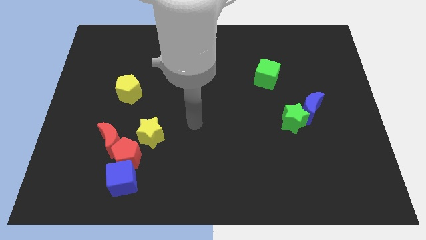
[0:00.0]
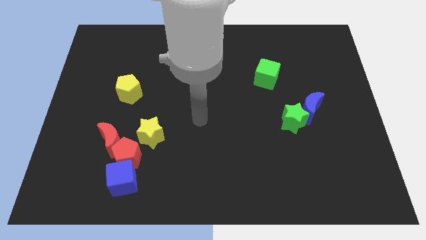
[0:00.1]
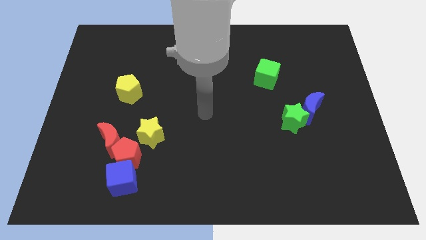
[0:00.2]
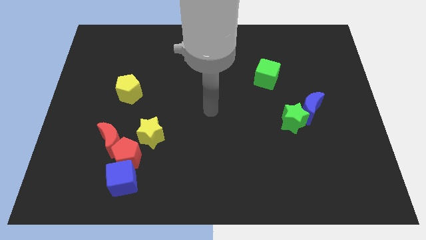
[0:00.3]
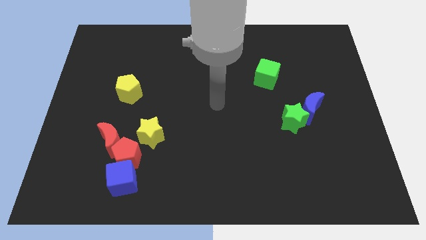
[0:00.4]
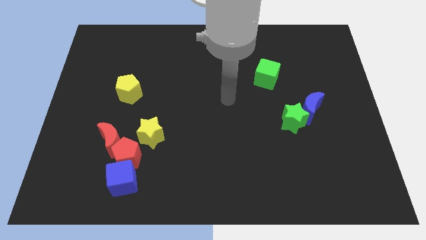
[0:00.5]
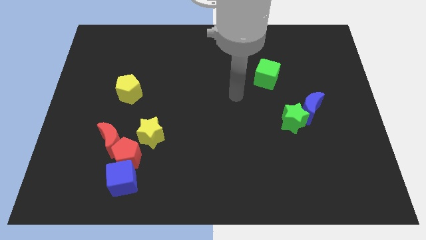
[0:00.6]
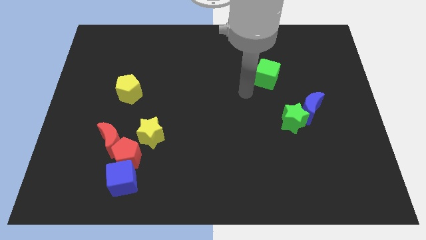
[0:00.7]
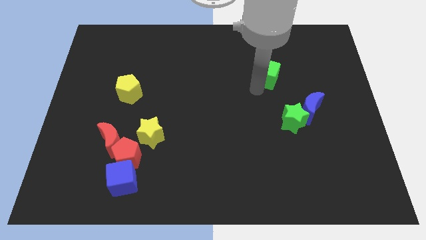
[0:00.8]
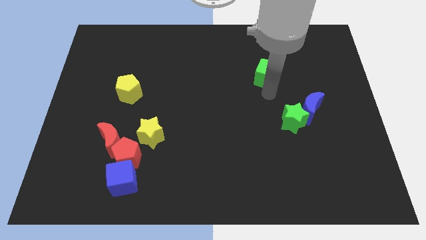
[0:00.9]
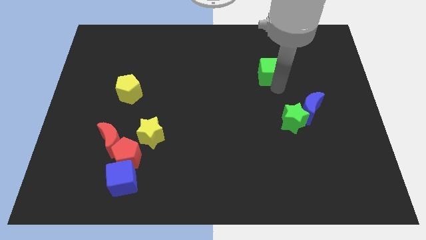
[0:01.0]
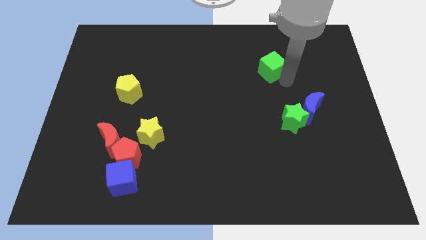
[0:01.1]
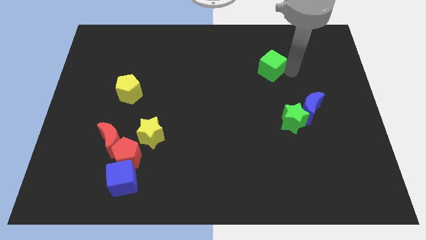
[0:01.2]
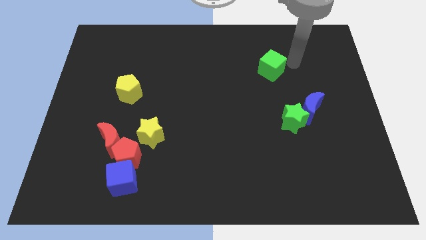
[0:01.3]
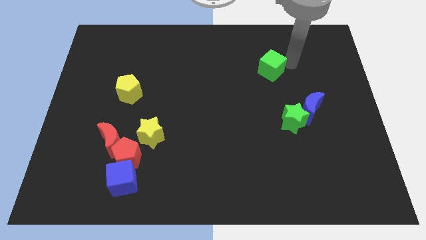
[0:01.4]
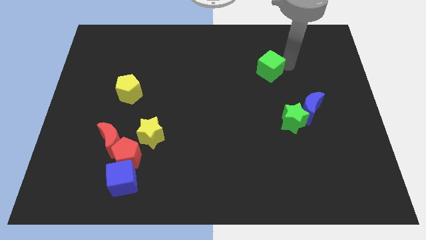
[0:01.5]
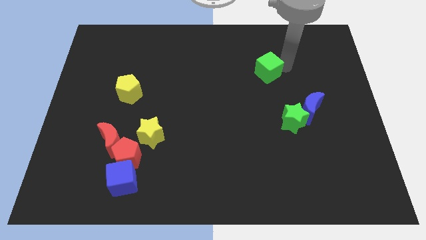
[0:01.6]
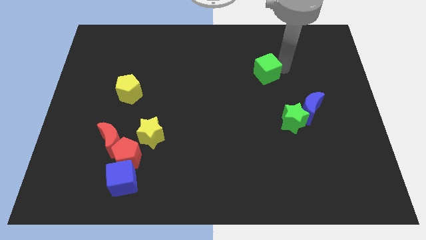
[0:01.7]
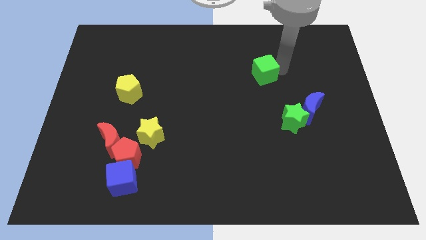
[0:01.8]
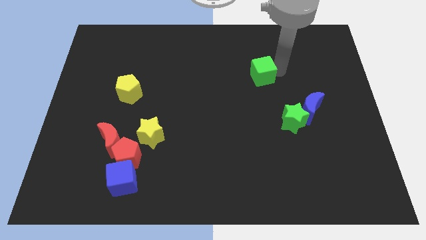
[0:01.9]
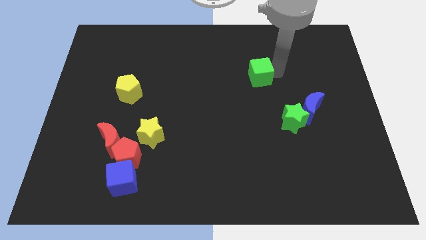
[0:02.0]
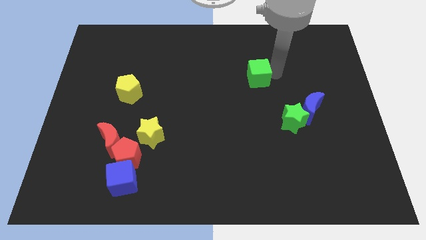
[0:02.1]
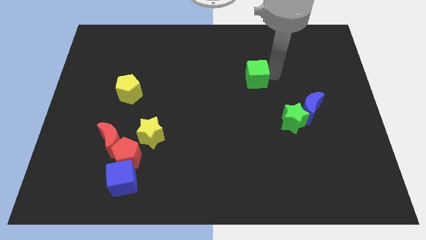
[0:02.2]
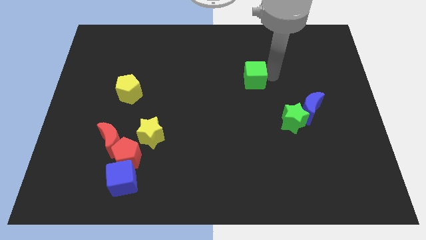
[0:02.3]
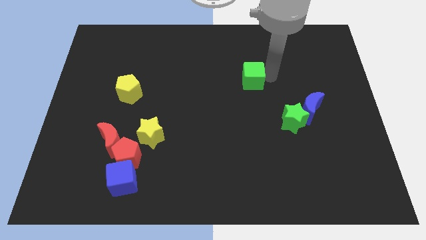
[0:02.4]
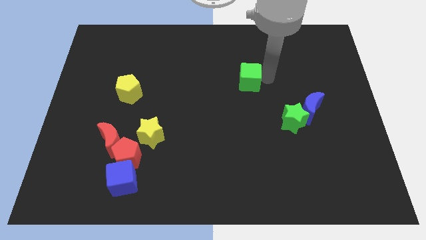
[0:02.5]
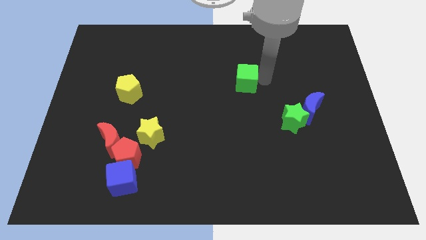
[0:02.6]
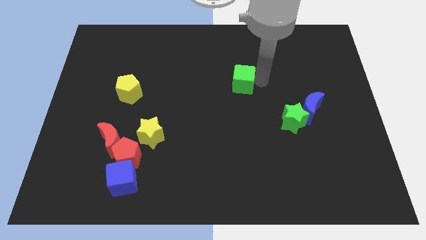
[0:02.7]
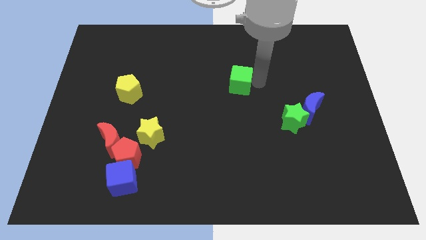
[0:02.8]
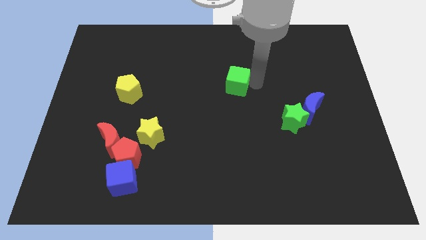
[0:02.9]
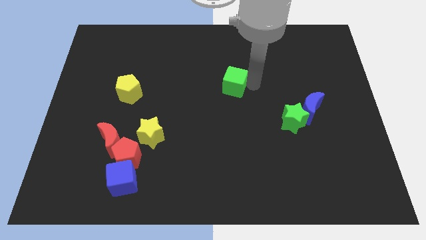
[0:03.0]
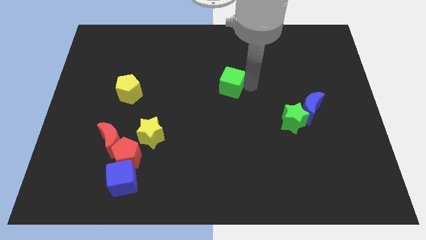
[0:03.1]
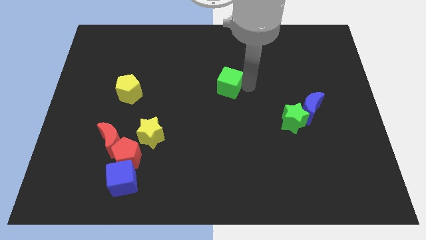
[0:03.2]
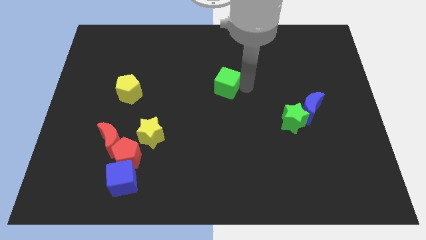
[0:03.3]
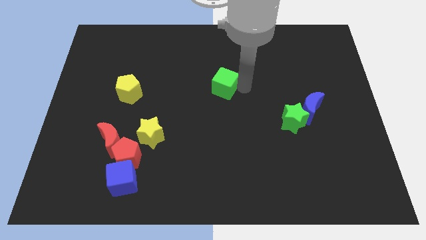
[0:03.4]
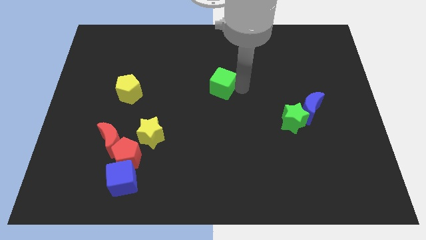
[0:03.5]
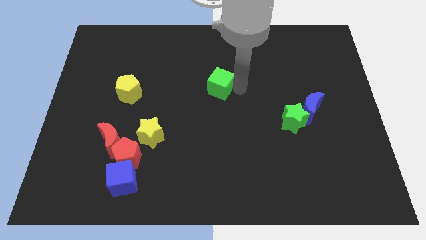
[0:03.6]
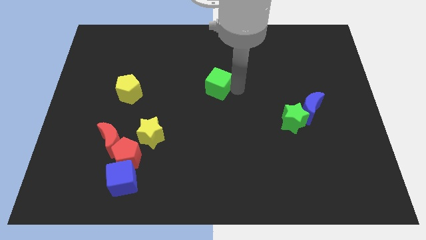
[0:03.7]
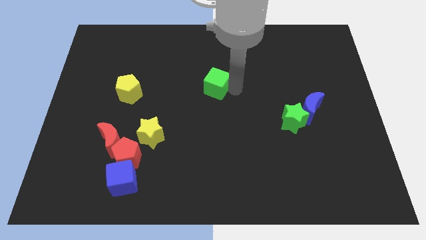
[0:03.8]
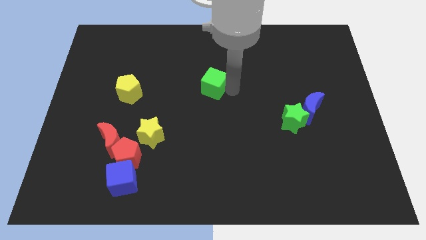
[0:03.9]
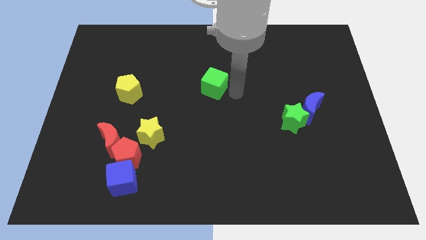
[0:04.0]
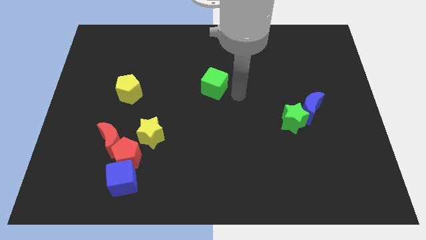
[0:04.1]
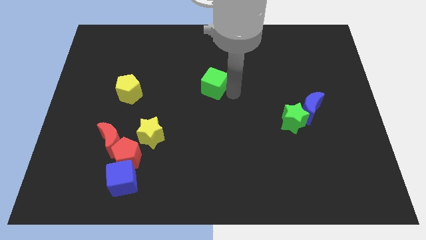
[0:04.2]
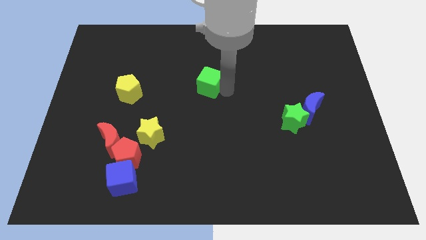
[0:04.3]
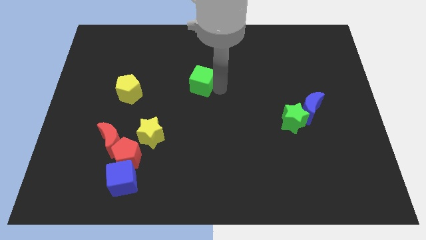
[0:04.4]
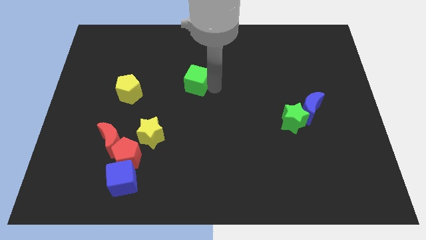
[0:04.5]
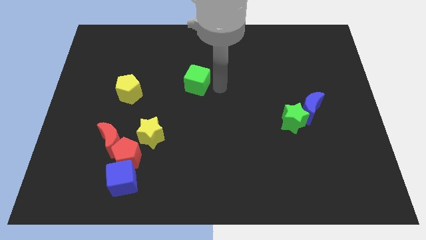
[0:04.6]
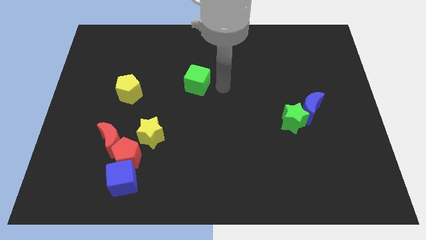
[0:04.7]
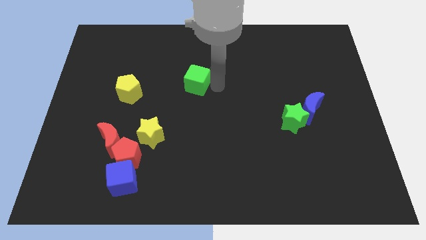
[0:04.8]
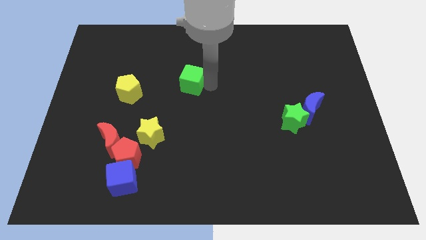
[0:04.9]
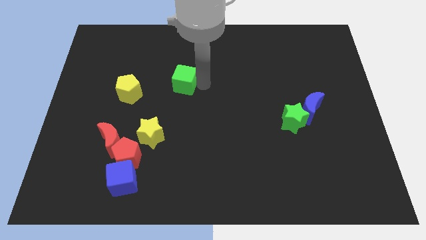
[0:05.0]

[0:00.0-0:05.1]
move the green cube left

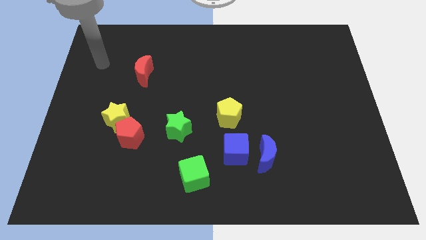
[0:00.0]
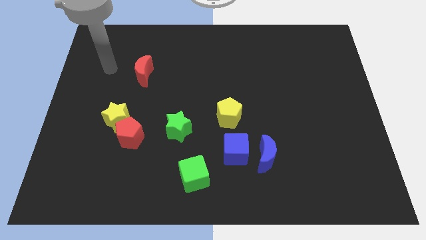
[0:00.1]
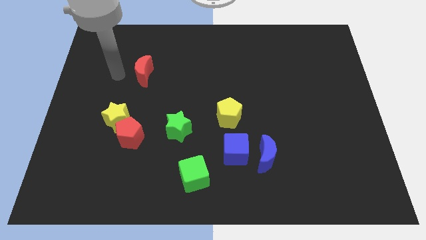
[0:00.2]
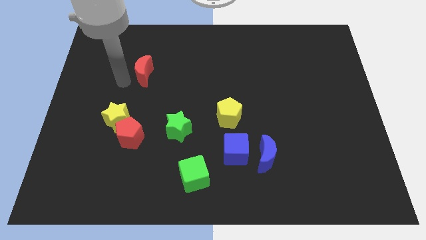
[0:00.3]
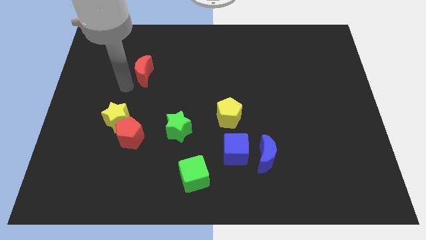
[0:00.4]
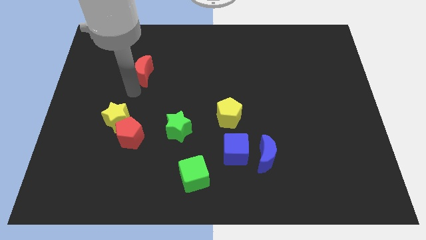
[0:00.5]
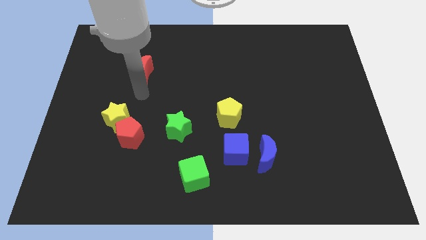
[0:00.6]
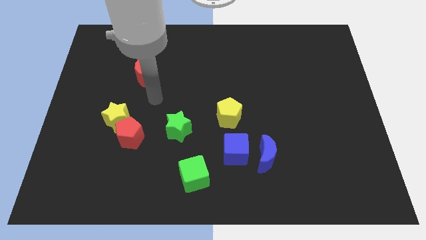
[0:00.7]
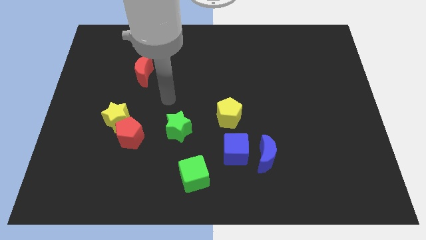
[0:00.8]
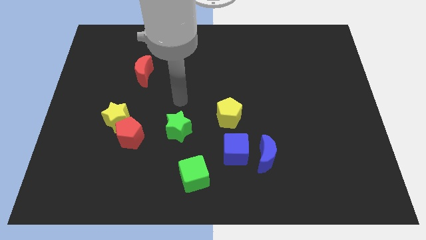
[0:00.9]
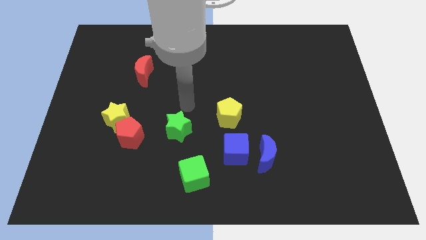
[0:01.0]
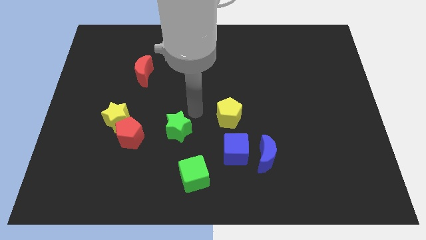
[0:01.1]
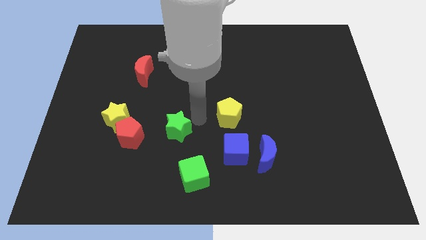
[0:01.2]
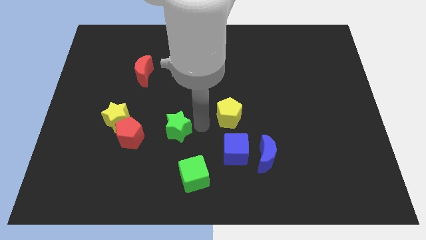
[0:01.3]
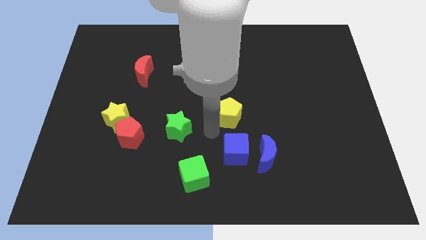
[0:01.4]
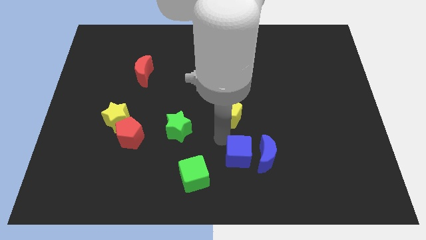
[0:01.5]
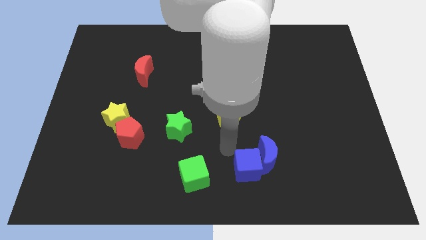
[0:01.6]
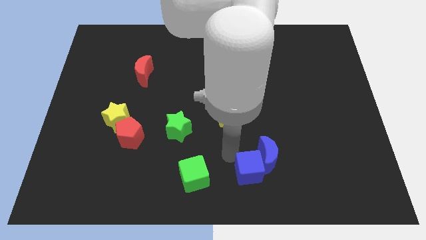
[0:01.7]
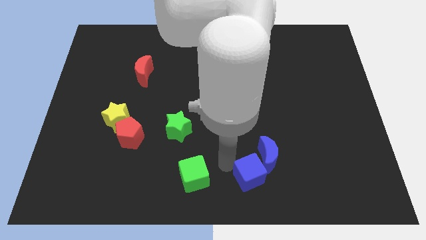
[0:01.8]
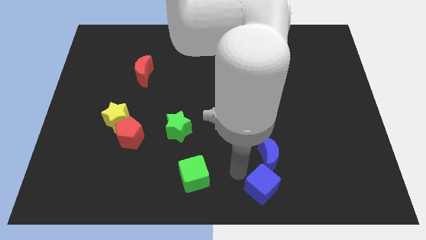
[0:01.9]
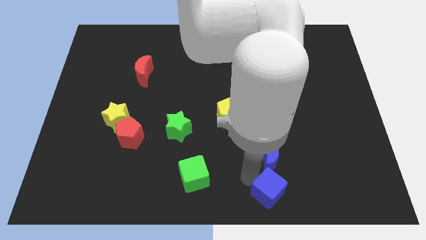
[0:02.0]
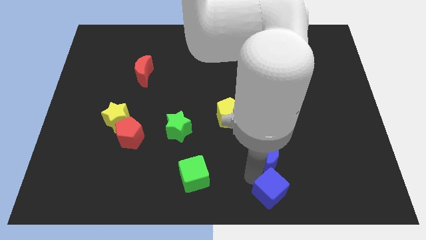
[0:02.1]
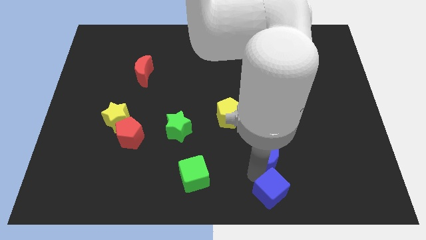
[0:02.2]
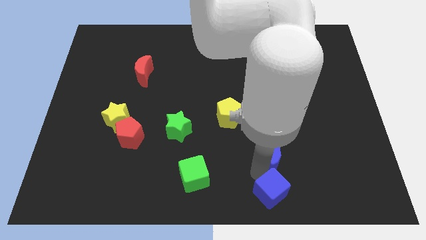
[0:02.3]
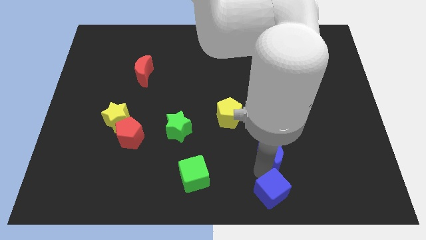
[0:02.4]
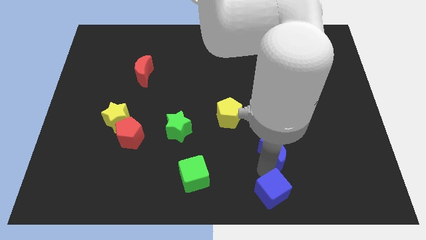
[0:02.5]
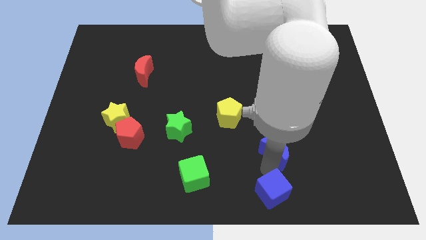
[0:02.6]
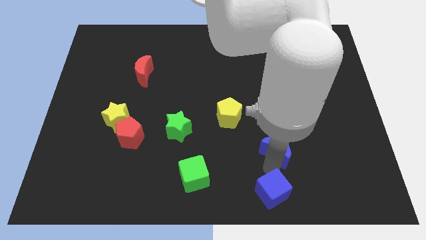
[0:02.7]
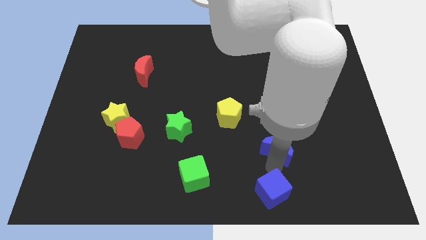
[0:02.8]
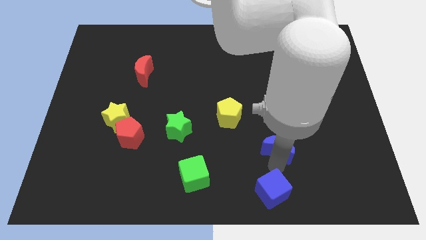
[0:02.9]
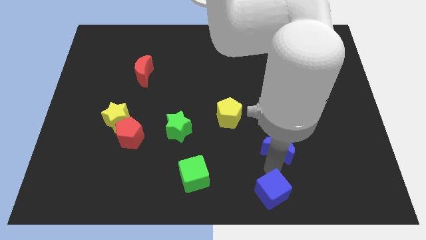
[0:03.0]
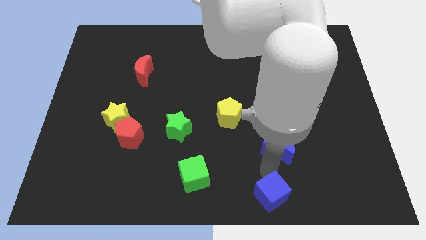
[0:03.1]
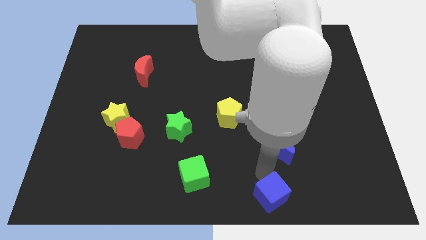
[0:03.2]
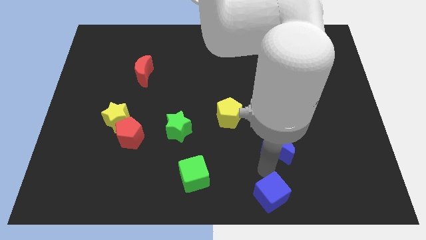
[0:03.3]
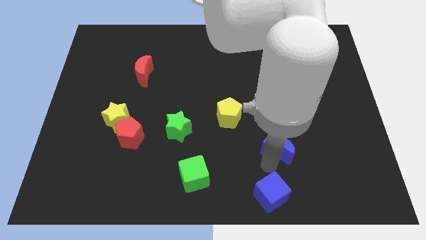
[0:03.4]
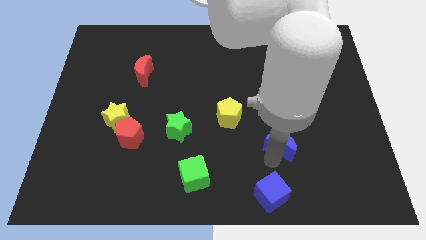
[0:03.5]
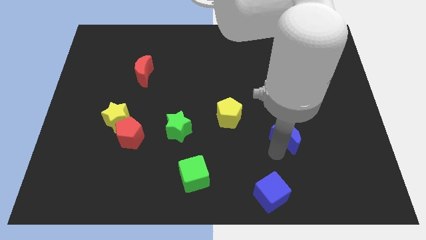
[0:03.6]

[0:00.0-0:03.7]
push the blue moon a bit up and then to the right
